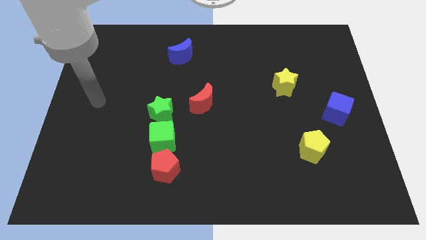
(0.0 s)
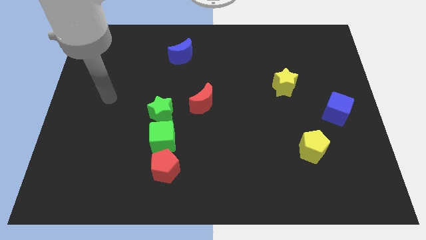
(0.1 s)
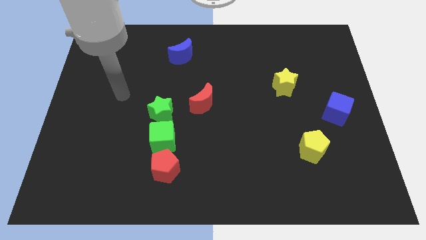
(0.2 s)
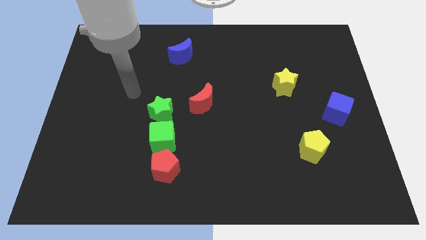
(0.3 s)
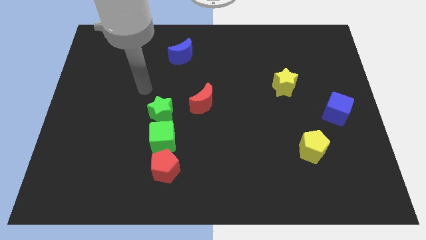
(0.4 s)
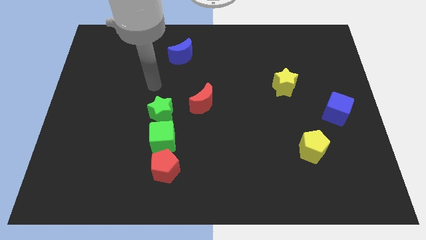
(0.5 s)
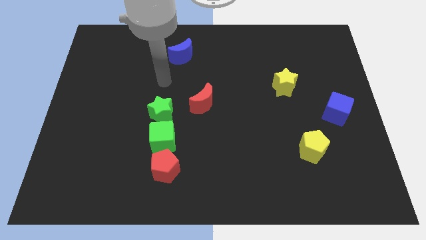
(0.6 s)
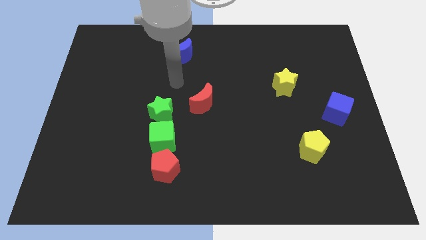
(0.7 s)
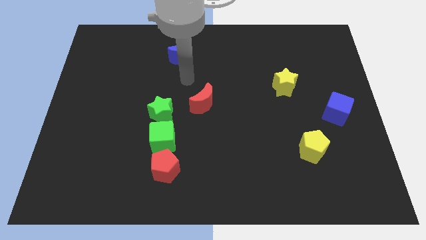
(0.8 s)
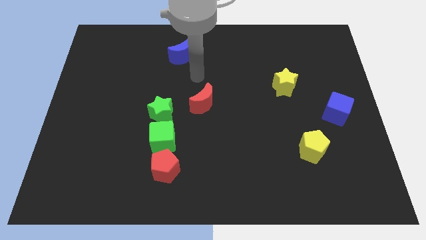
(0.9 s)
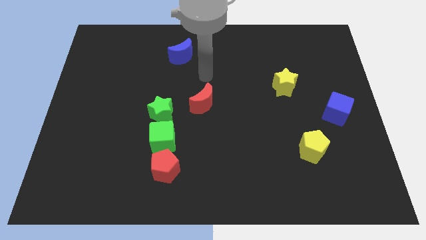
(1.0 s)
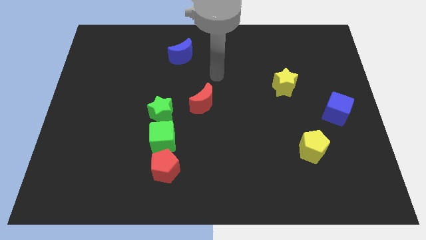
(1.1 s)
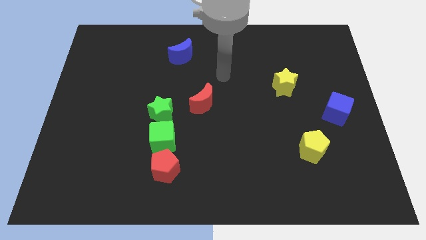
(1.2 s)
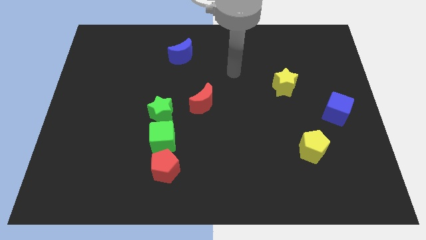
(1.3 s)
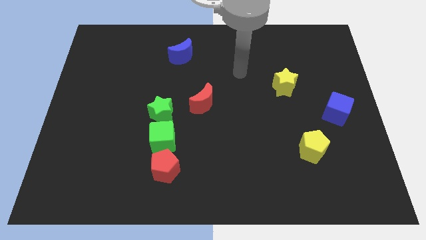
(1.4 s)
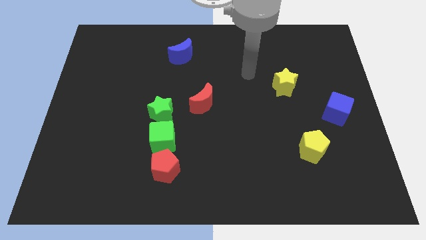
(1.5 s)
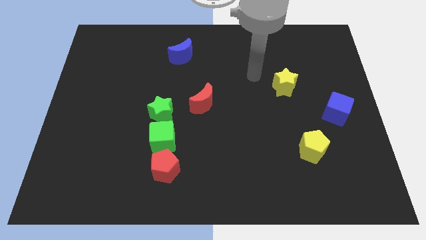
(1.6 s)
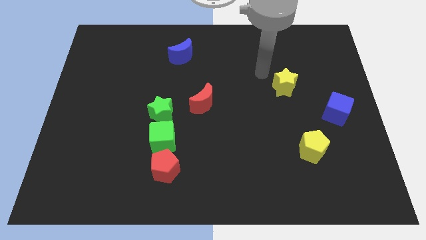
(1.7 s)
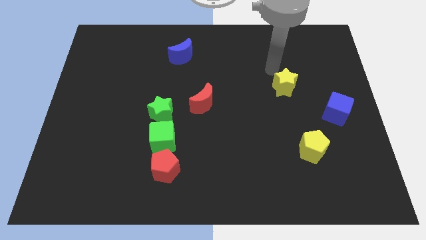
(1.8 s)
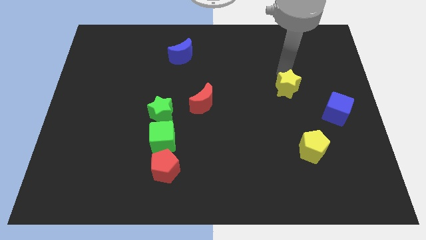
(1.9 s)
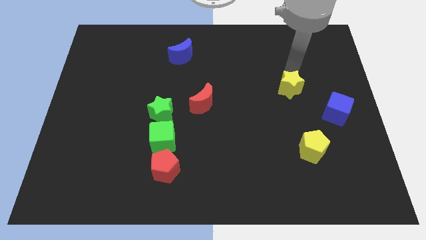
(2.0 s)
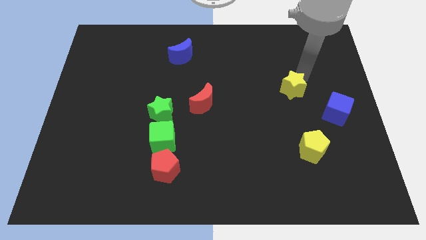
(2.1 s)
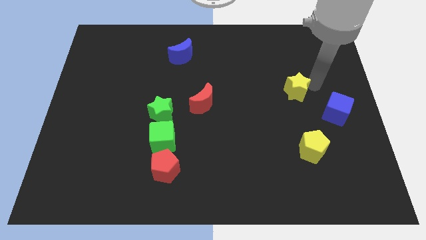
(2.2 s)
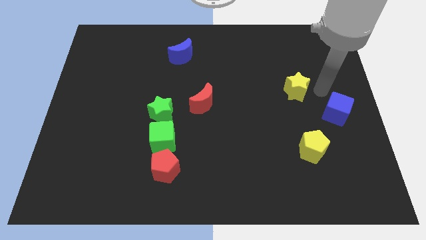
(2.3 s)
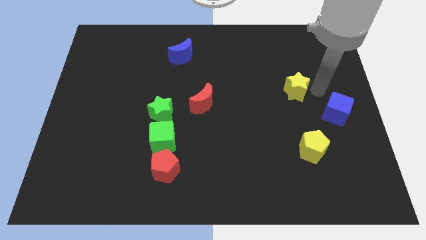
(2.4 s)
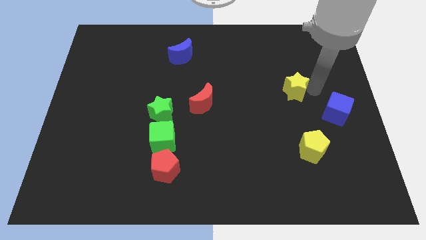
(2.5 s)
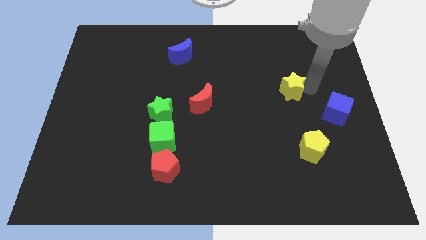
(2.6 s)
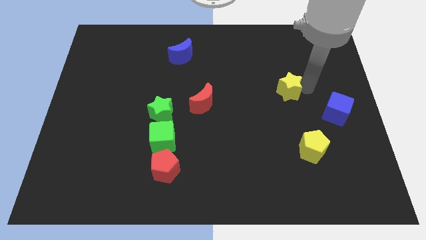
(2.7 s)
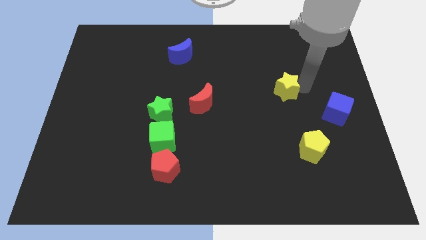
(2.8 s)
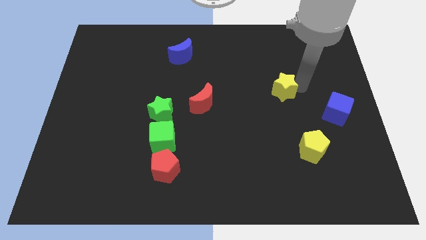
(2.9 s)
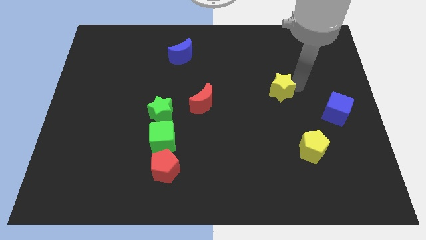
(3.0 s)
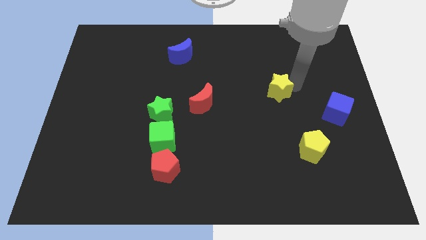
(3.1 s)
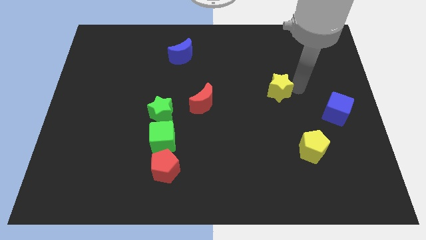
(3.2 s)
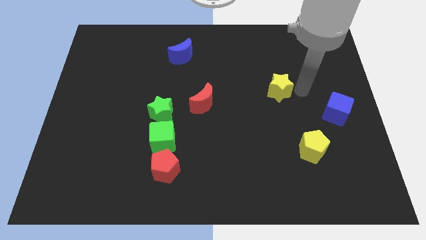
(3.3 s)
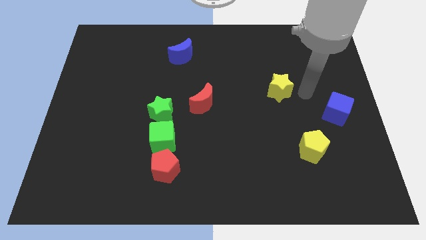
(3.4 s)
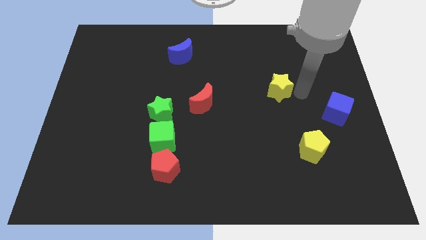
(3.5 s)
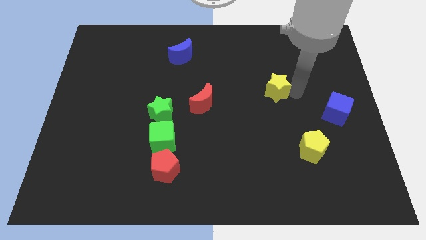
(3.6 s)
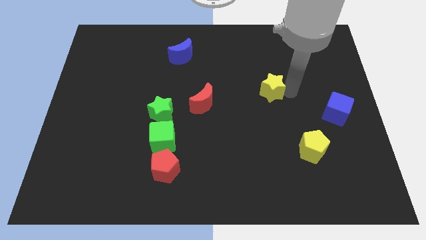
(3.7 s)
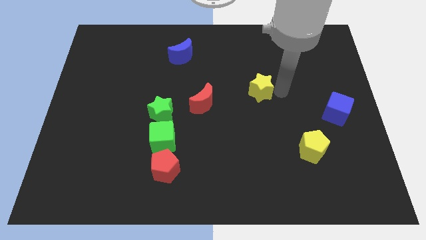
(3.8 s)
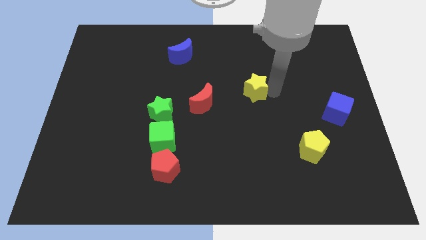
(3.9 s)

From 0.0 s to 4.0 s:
slightly move the yellow star left

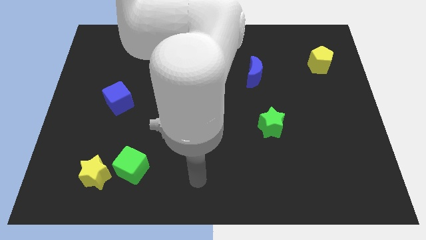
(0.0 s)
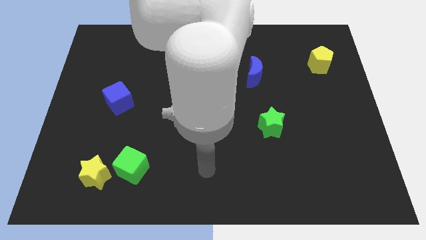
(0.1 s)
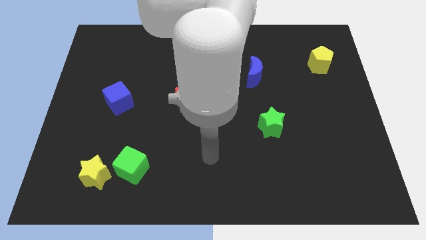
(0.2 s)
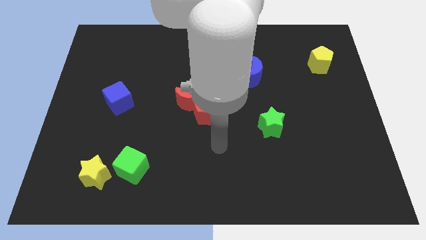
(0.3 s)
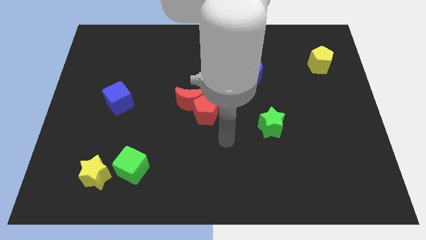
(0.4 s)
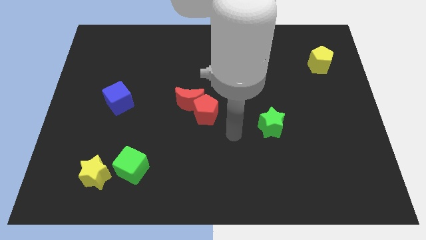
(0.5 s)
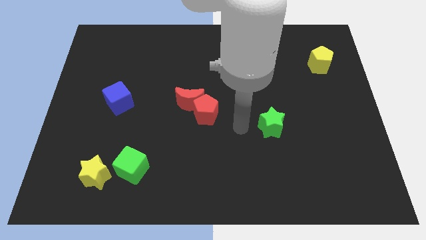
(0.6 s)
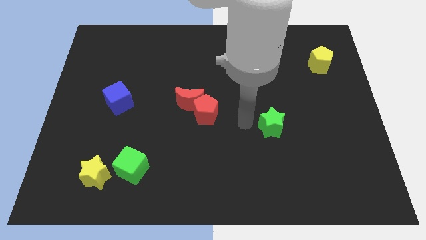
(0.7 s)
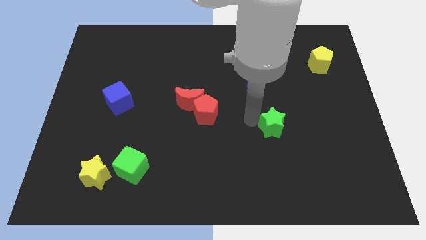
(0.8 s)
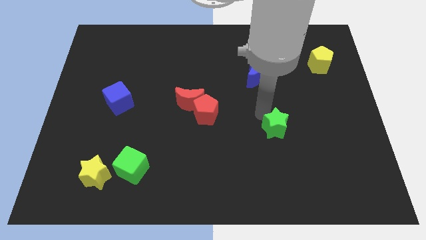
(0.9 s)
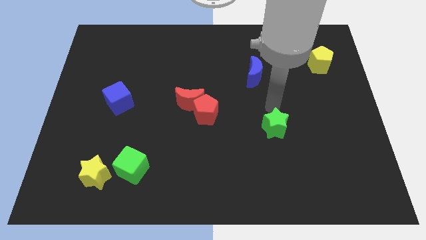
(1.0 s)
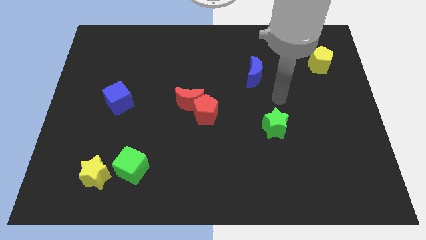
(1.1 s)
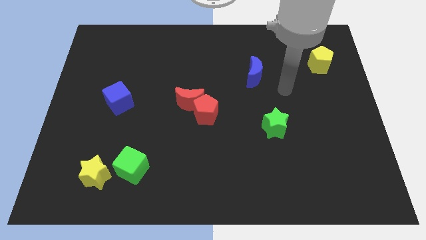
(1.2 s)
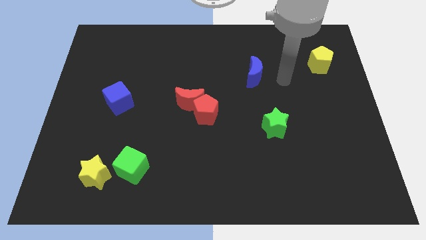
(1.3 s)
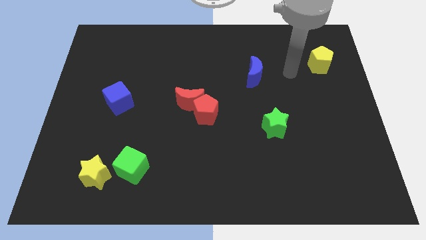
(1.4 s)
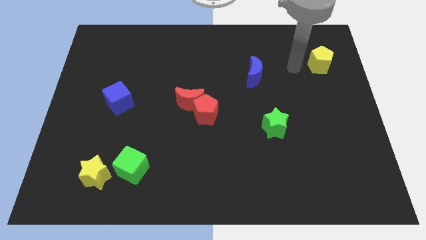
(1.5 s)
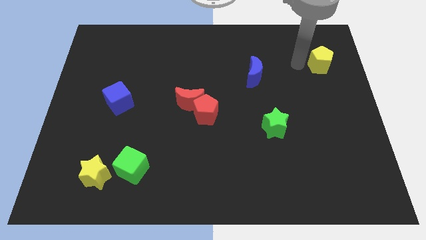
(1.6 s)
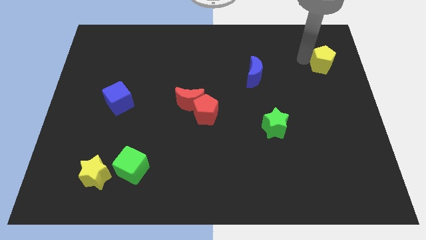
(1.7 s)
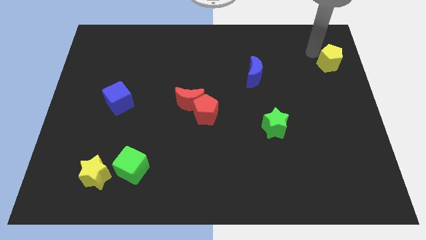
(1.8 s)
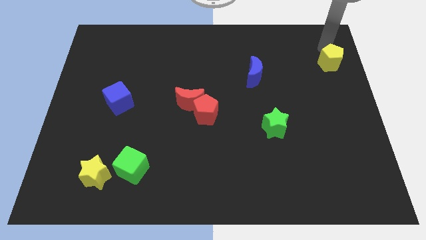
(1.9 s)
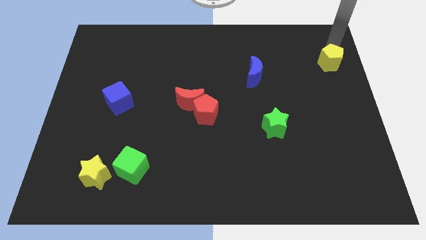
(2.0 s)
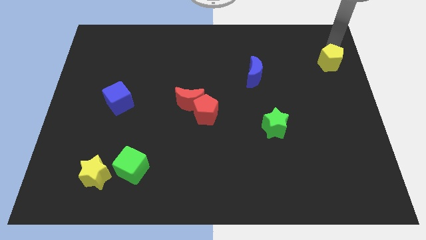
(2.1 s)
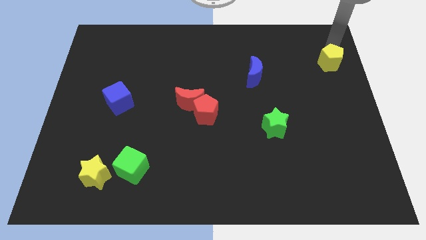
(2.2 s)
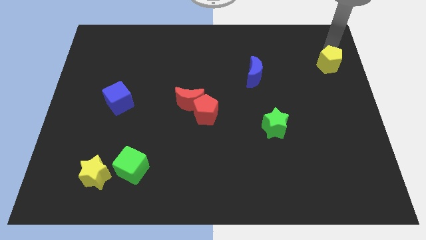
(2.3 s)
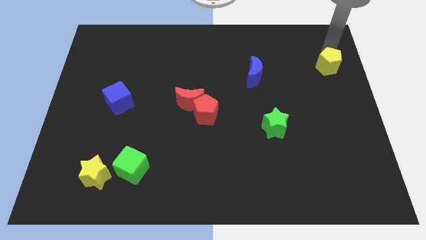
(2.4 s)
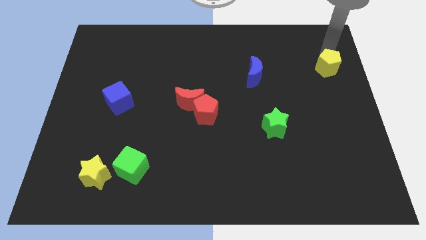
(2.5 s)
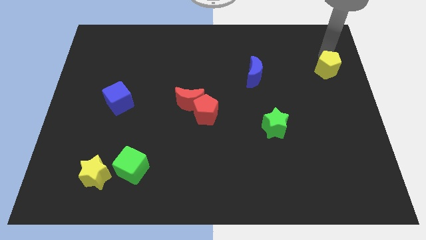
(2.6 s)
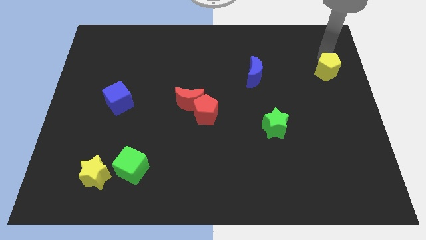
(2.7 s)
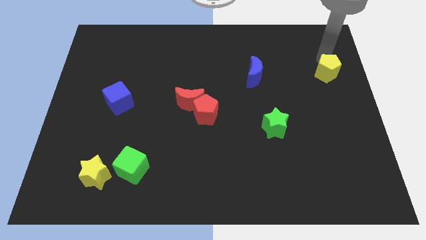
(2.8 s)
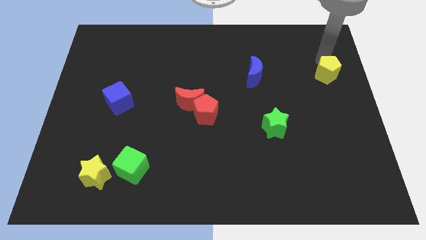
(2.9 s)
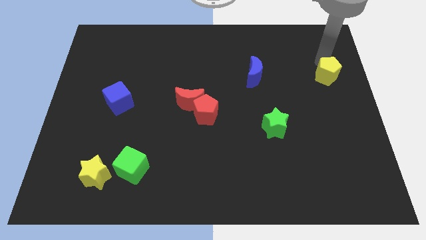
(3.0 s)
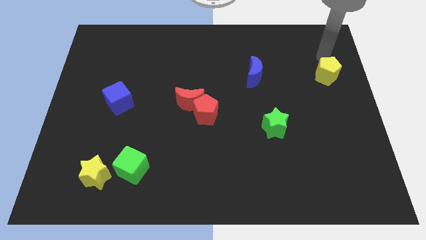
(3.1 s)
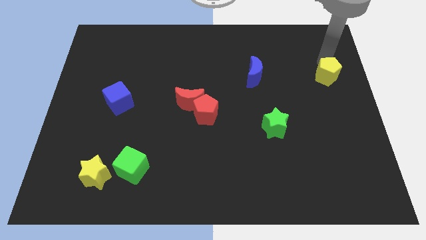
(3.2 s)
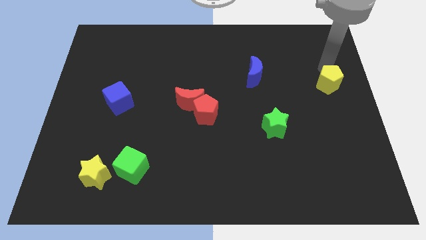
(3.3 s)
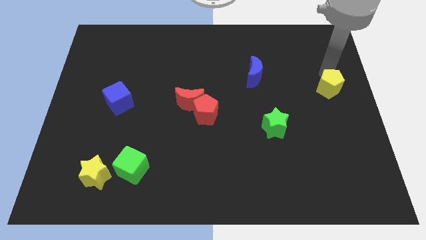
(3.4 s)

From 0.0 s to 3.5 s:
move the yellow pentagon a bit downwards

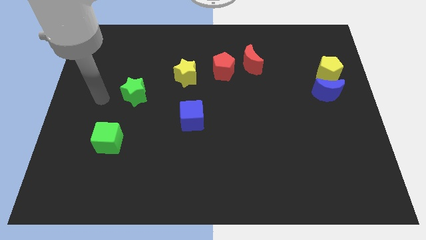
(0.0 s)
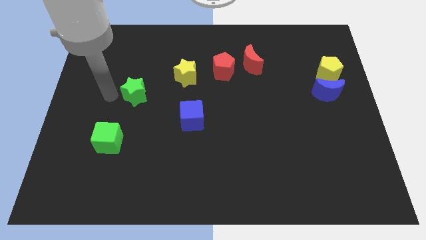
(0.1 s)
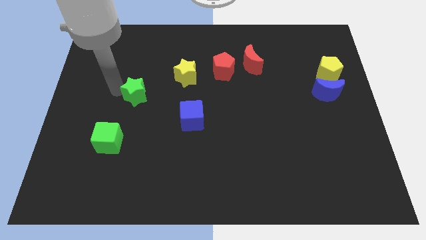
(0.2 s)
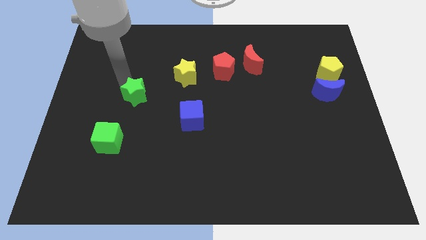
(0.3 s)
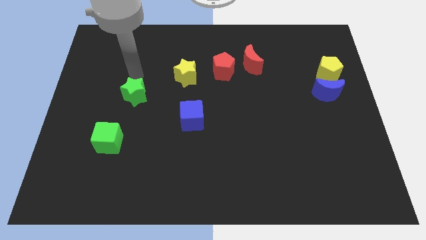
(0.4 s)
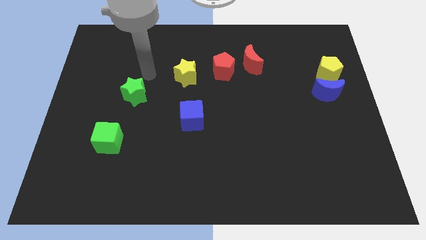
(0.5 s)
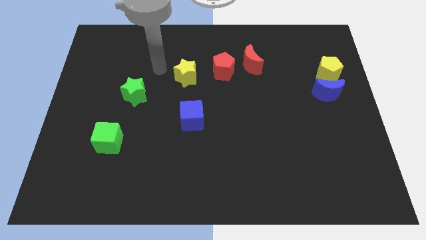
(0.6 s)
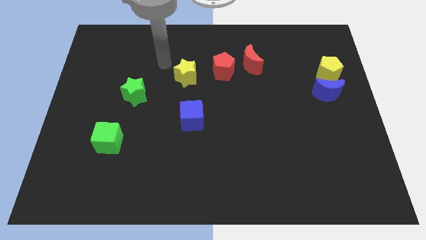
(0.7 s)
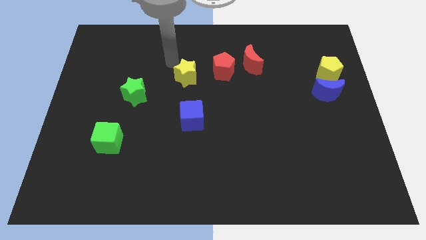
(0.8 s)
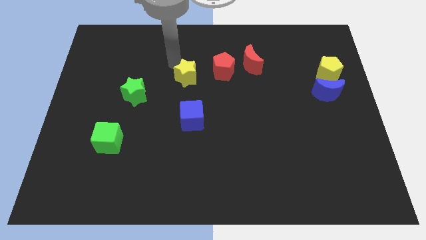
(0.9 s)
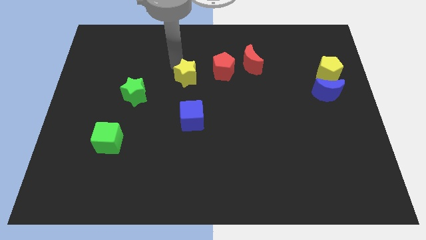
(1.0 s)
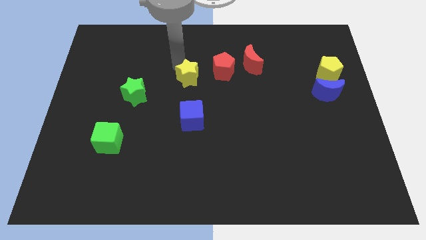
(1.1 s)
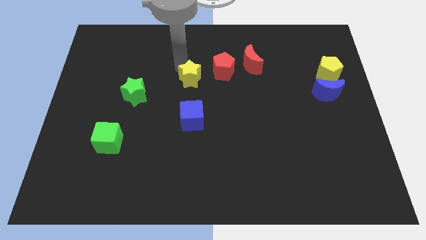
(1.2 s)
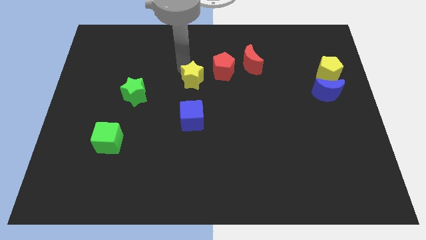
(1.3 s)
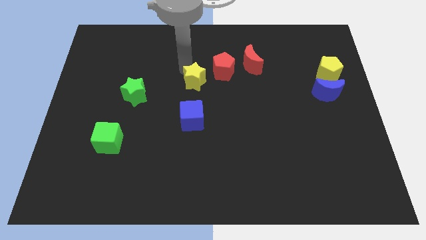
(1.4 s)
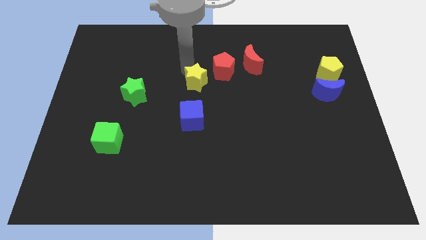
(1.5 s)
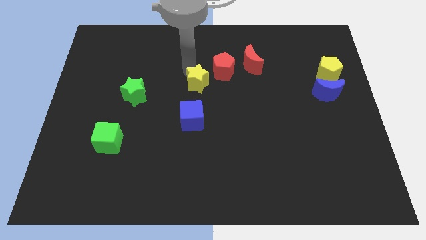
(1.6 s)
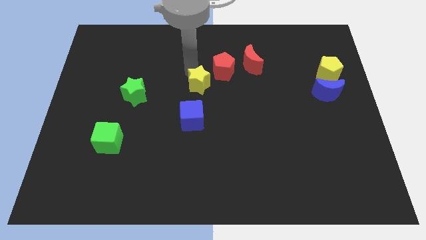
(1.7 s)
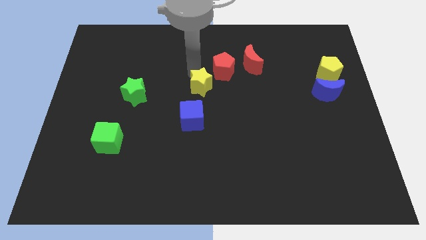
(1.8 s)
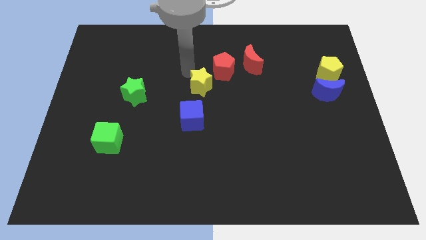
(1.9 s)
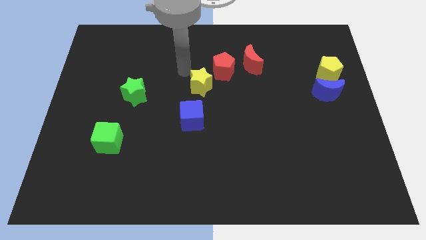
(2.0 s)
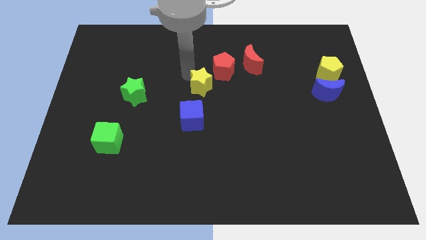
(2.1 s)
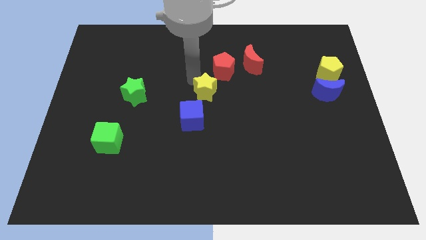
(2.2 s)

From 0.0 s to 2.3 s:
move the yellow star somewhat diagonally downwards and to the right
